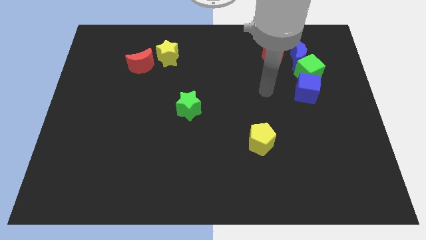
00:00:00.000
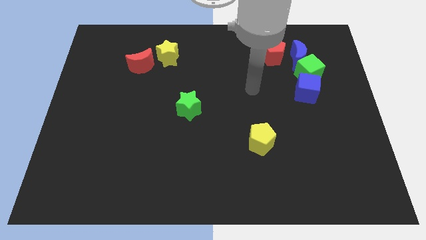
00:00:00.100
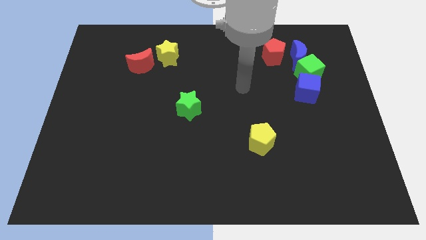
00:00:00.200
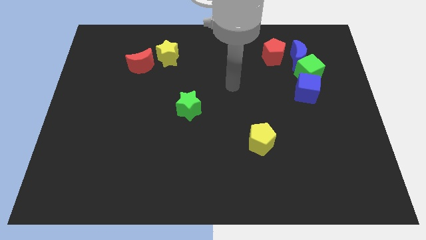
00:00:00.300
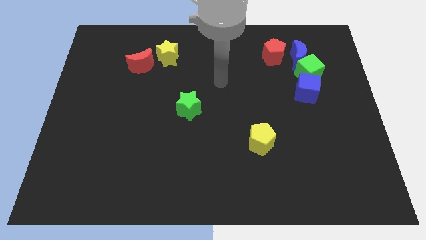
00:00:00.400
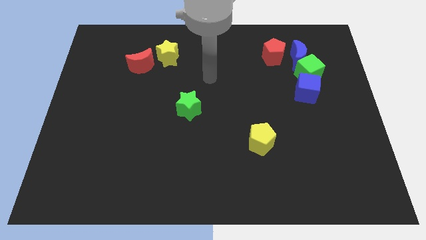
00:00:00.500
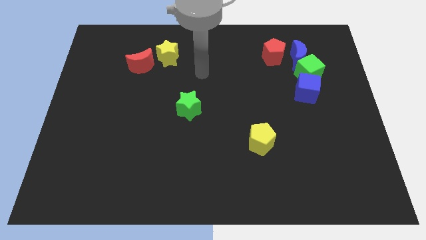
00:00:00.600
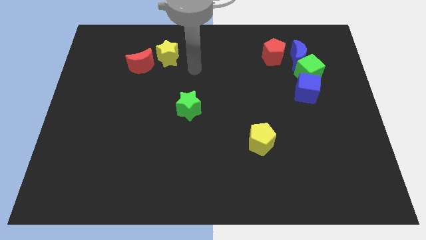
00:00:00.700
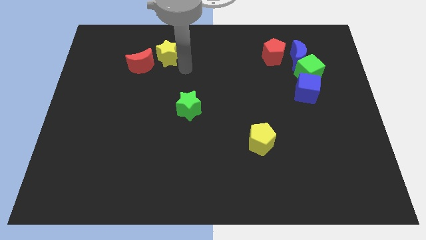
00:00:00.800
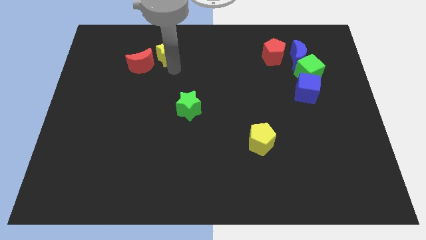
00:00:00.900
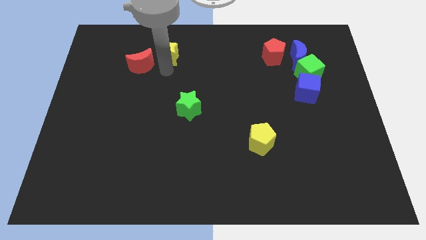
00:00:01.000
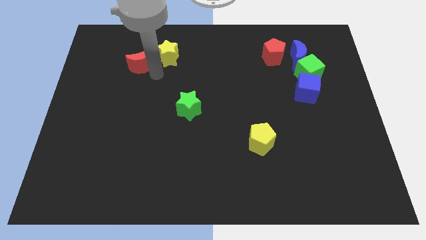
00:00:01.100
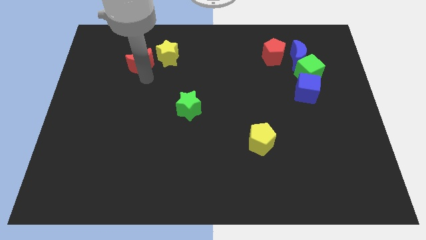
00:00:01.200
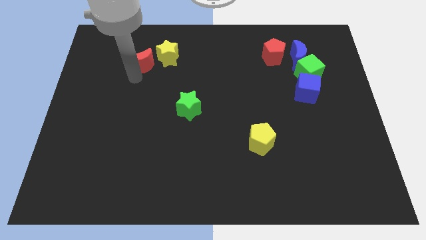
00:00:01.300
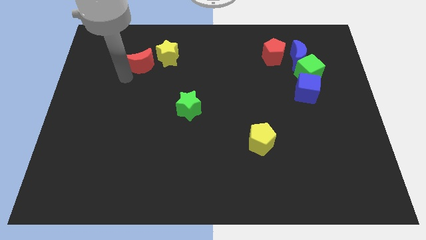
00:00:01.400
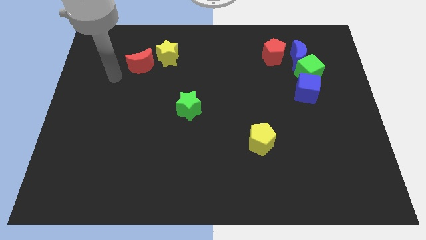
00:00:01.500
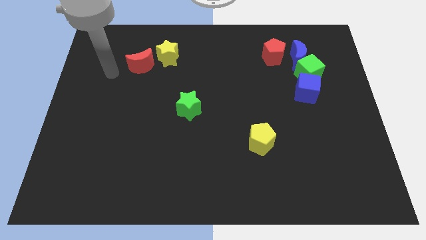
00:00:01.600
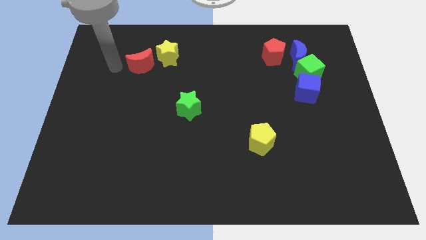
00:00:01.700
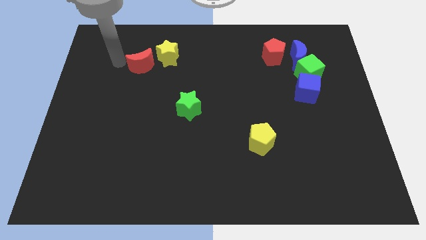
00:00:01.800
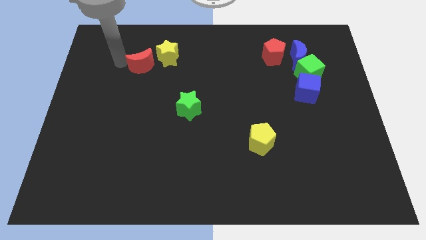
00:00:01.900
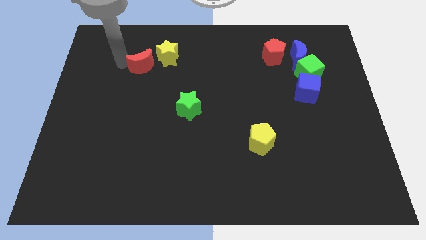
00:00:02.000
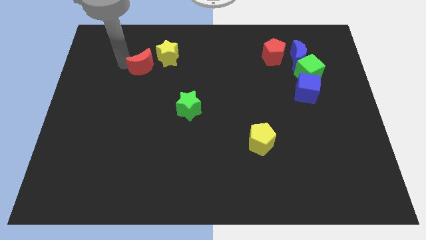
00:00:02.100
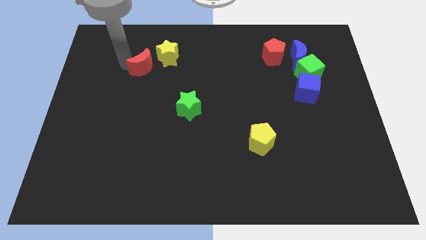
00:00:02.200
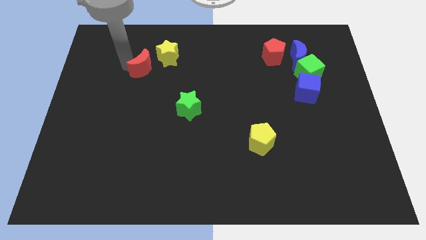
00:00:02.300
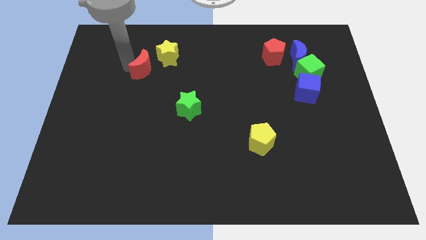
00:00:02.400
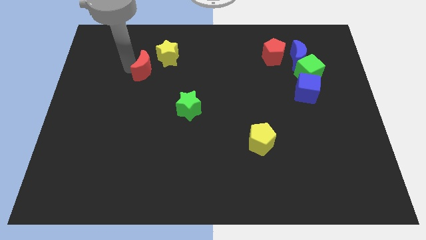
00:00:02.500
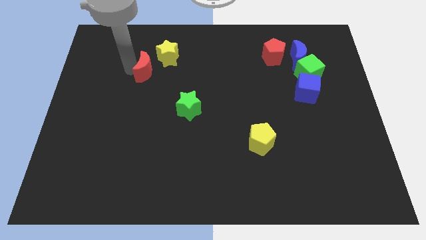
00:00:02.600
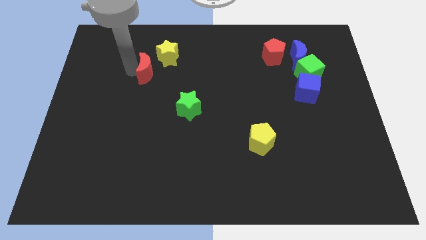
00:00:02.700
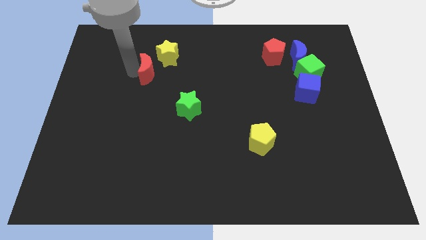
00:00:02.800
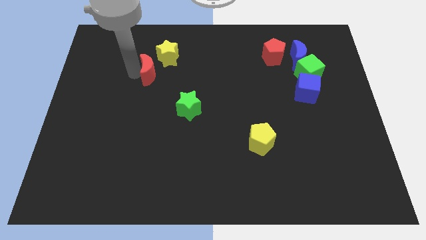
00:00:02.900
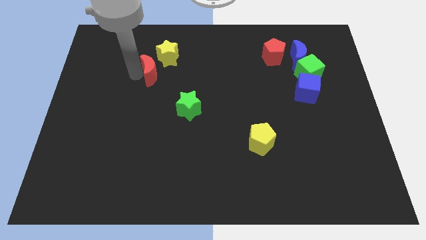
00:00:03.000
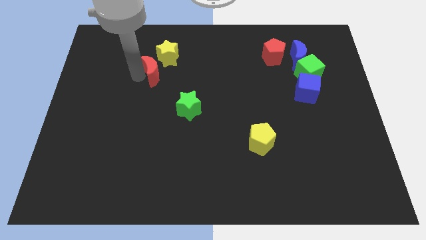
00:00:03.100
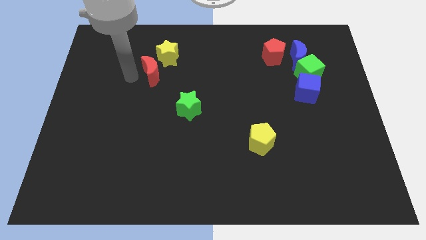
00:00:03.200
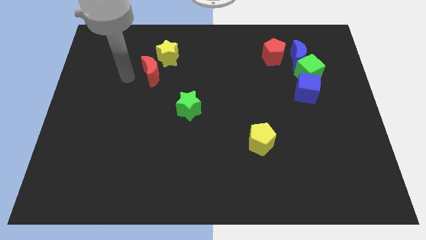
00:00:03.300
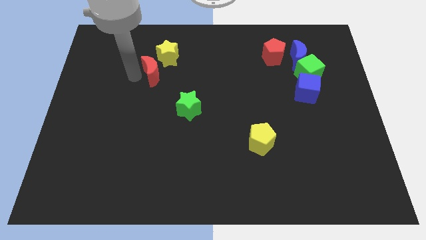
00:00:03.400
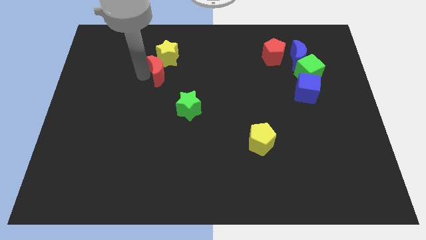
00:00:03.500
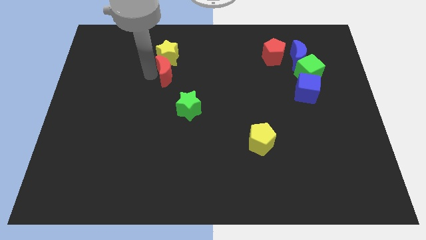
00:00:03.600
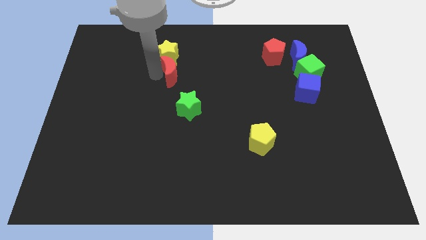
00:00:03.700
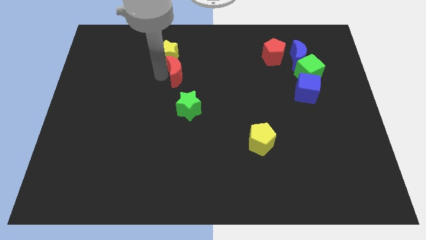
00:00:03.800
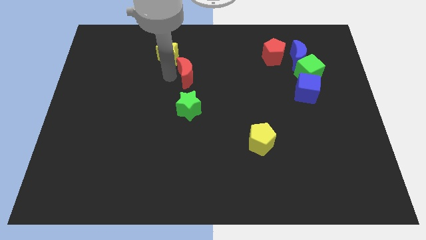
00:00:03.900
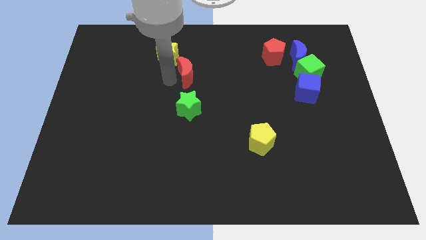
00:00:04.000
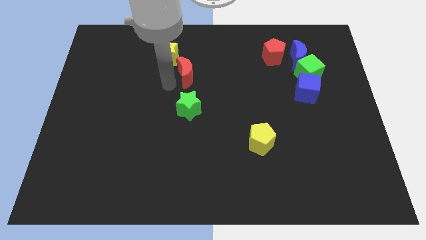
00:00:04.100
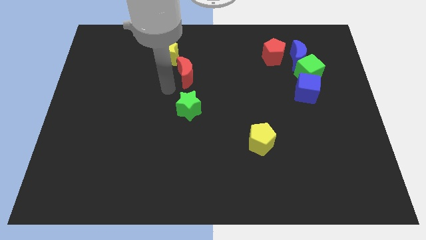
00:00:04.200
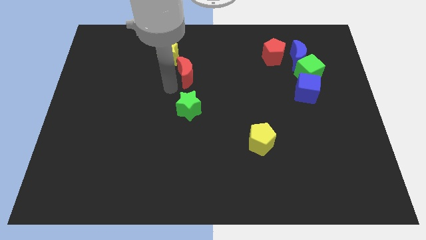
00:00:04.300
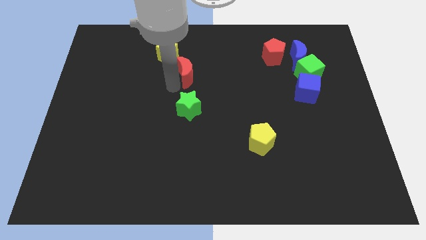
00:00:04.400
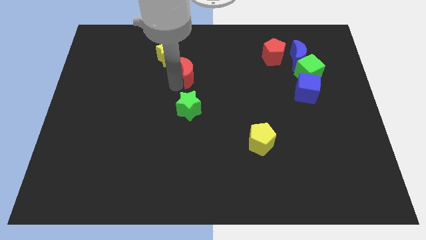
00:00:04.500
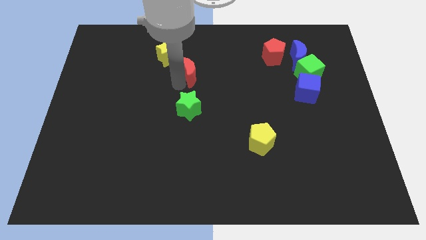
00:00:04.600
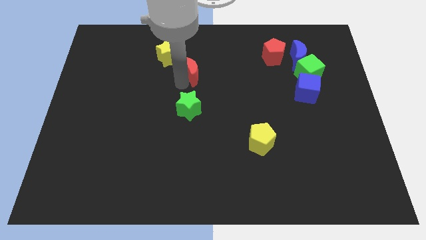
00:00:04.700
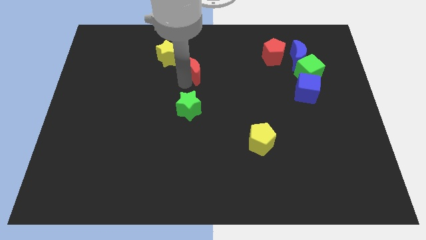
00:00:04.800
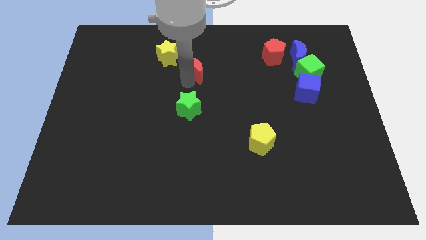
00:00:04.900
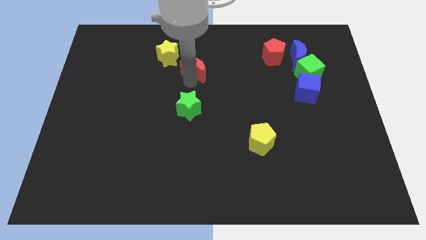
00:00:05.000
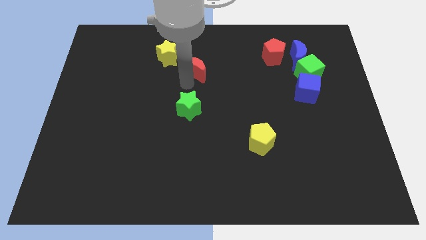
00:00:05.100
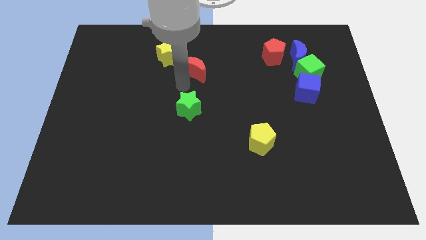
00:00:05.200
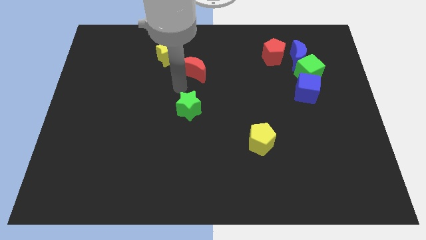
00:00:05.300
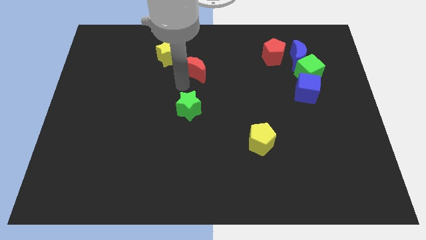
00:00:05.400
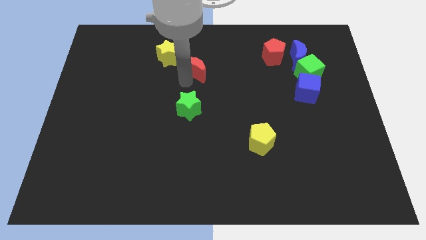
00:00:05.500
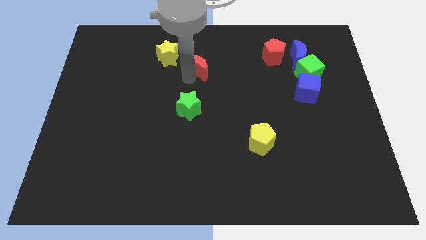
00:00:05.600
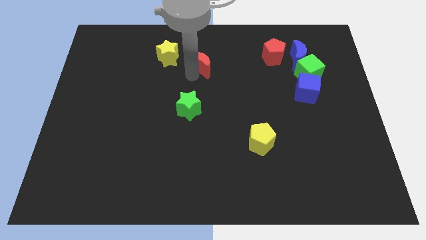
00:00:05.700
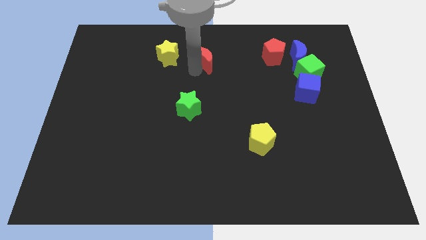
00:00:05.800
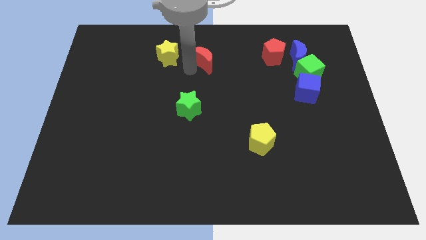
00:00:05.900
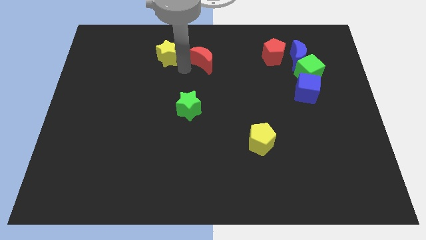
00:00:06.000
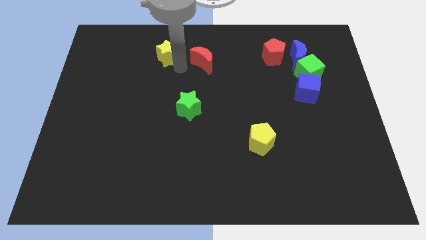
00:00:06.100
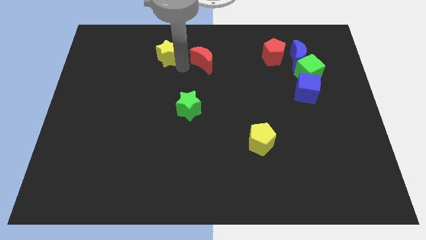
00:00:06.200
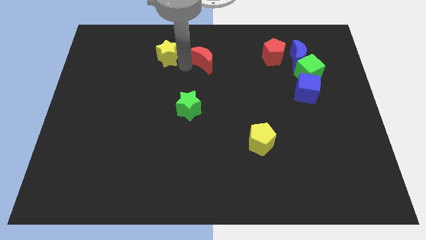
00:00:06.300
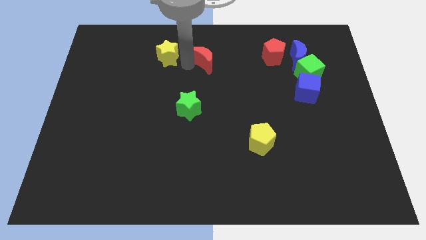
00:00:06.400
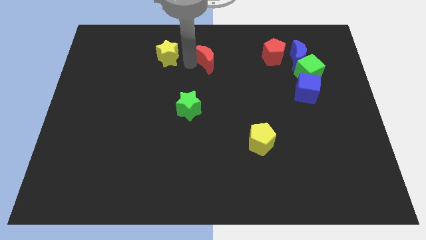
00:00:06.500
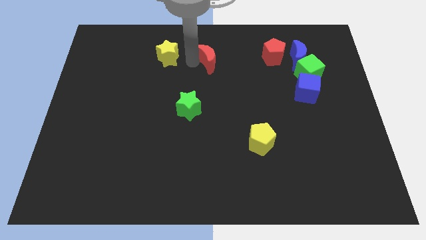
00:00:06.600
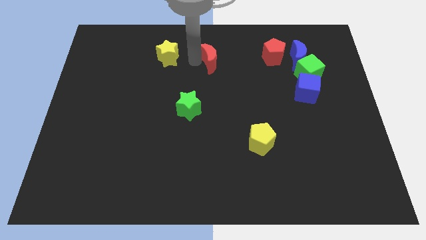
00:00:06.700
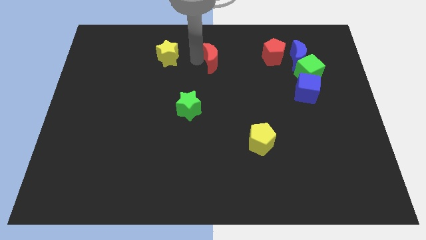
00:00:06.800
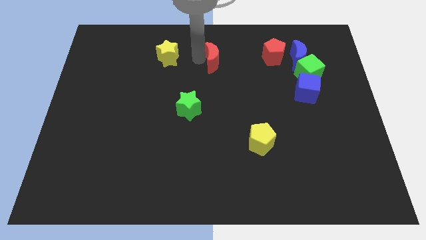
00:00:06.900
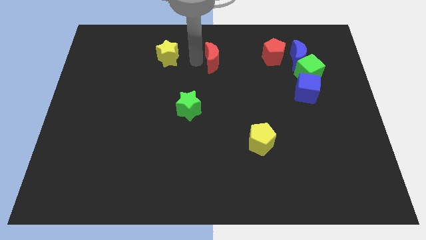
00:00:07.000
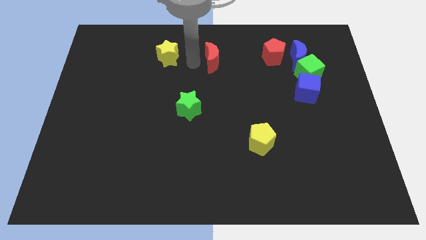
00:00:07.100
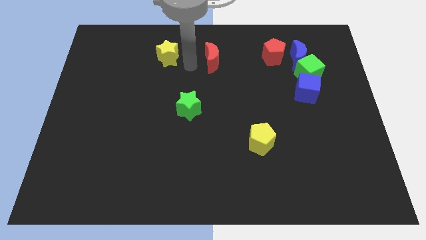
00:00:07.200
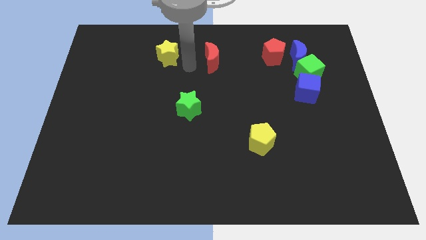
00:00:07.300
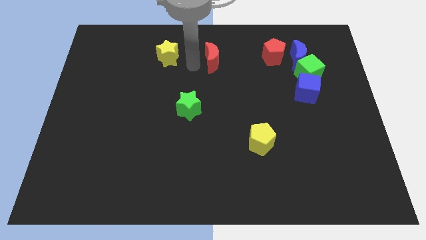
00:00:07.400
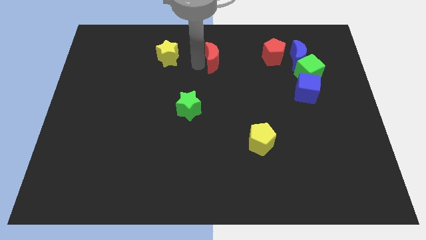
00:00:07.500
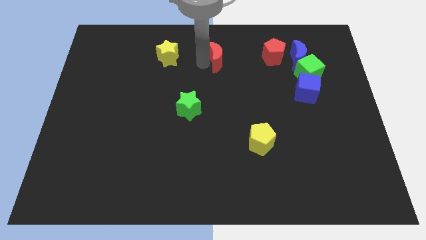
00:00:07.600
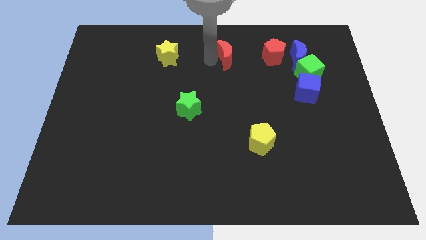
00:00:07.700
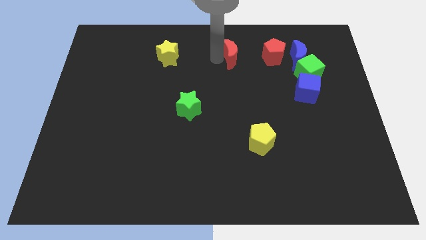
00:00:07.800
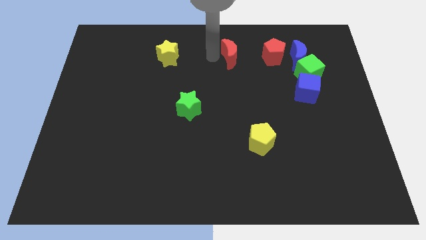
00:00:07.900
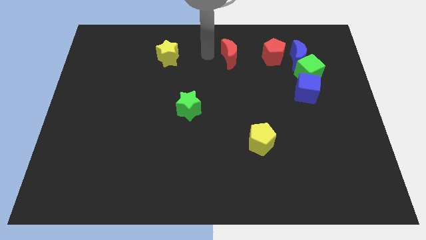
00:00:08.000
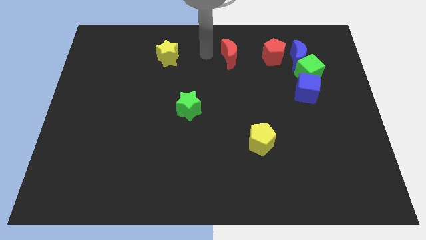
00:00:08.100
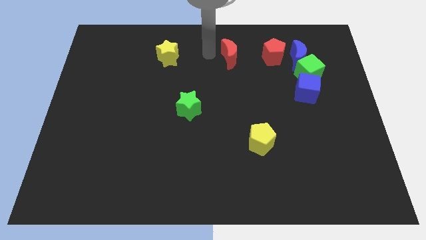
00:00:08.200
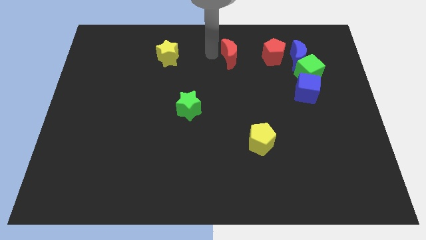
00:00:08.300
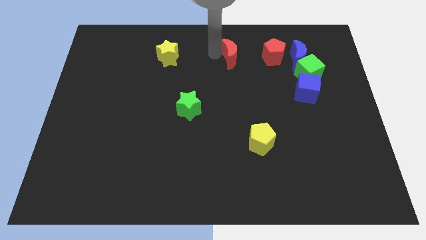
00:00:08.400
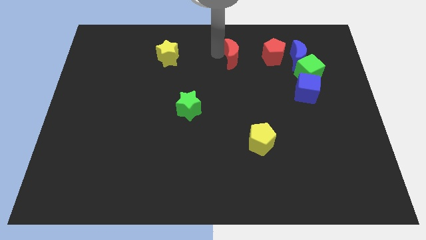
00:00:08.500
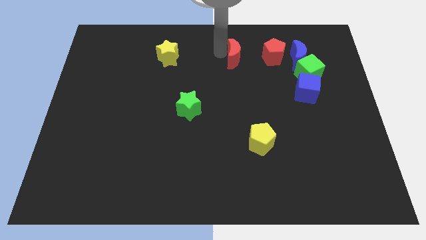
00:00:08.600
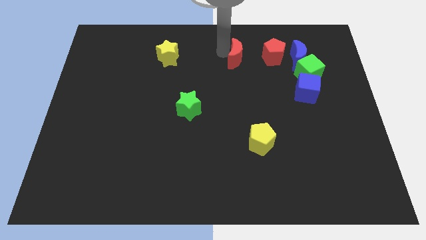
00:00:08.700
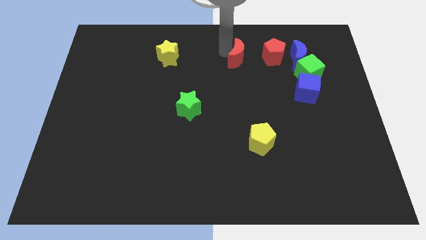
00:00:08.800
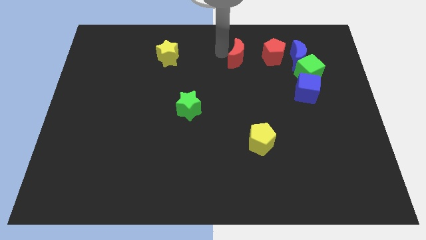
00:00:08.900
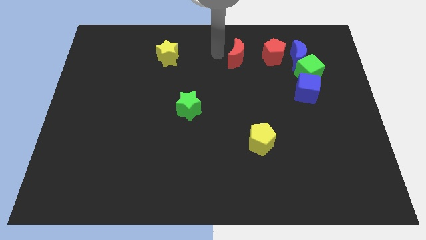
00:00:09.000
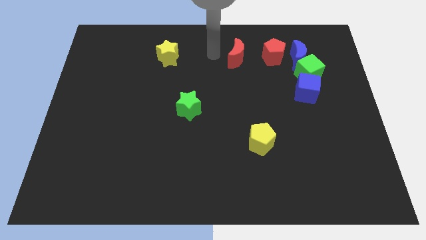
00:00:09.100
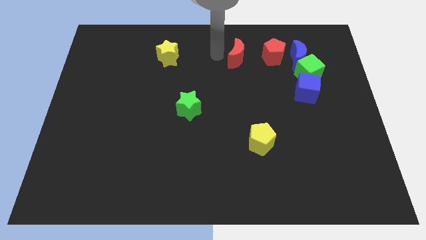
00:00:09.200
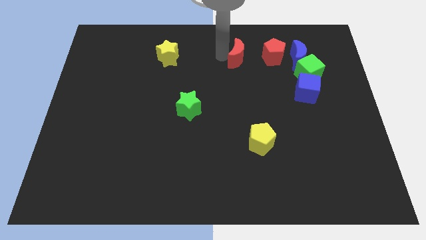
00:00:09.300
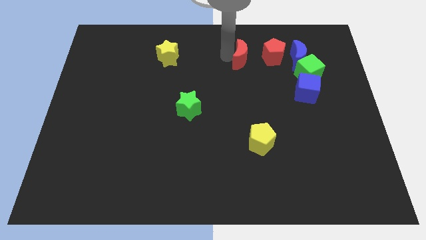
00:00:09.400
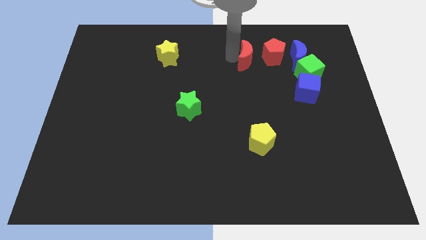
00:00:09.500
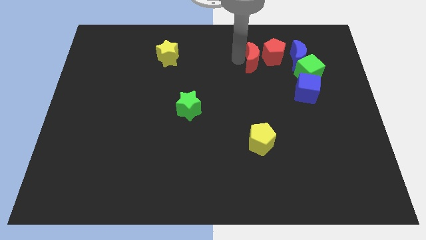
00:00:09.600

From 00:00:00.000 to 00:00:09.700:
push the red moon close to the red pentagon
